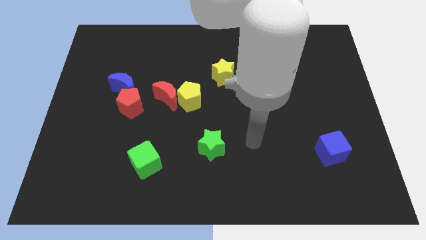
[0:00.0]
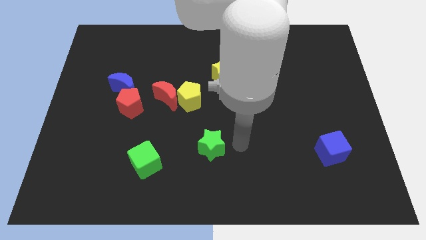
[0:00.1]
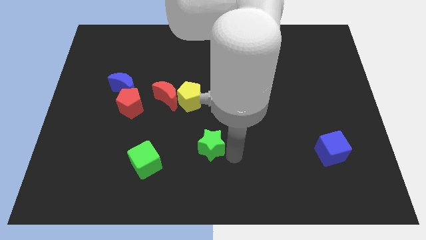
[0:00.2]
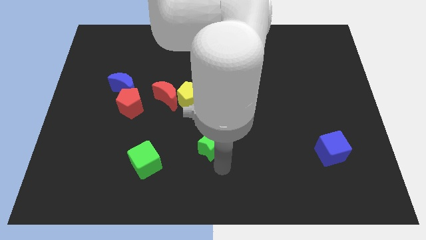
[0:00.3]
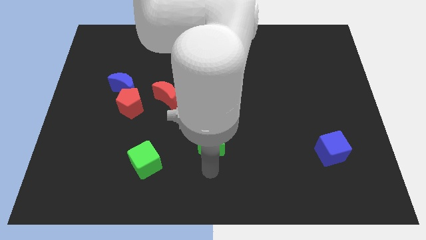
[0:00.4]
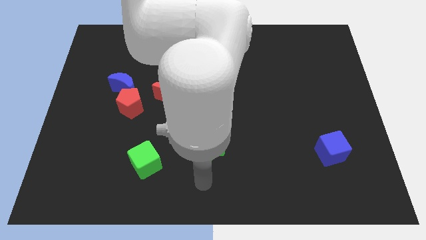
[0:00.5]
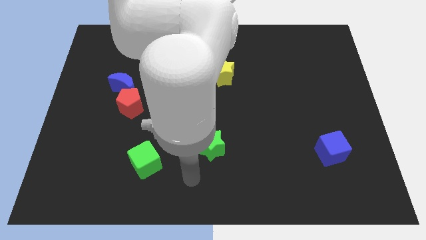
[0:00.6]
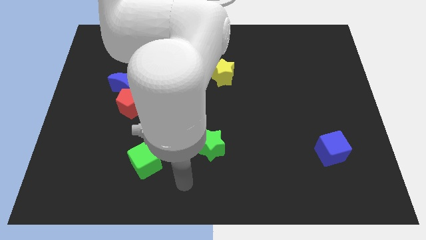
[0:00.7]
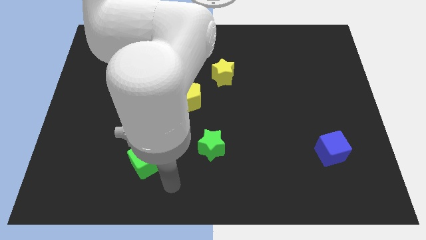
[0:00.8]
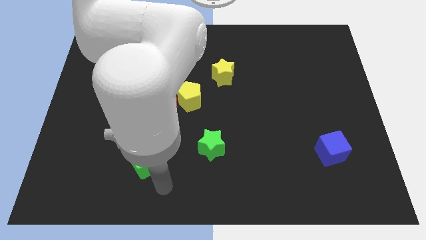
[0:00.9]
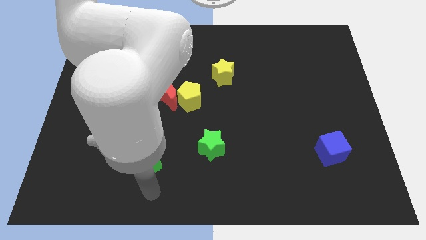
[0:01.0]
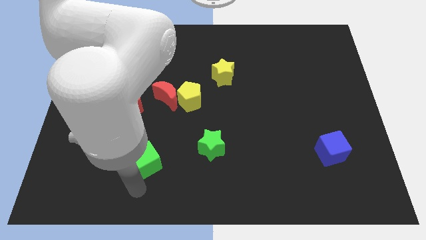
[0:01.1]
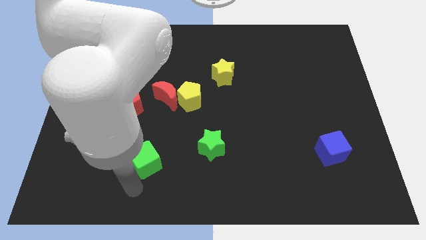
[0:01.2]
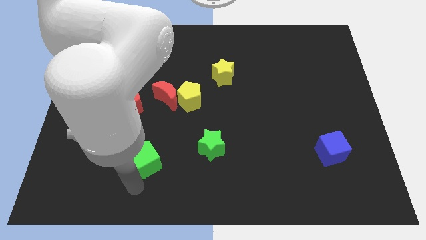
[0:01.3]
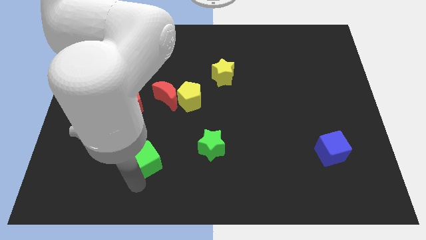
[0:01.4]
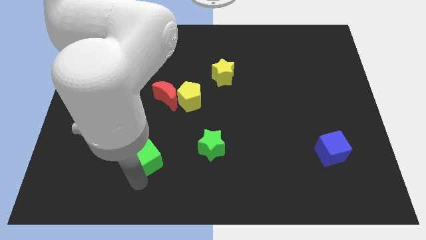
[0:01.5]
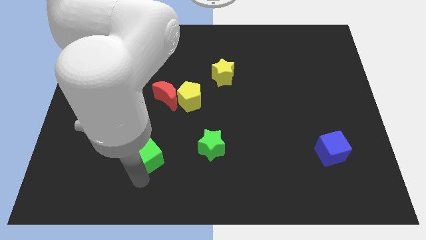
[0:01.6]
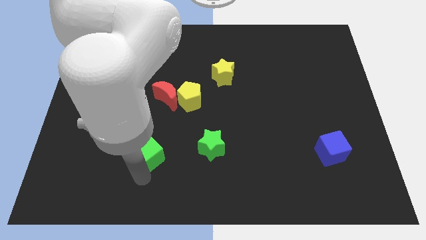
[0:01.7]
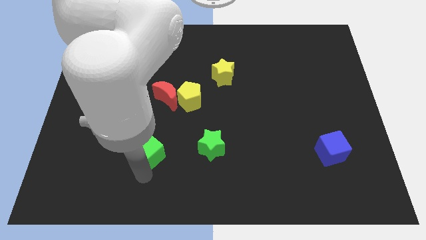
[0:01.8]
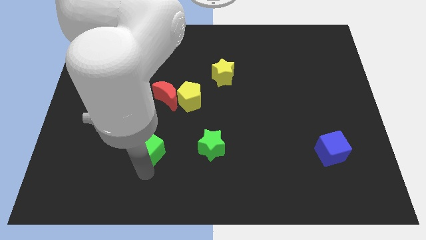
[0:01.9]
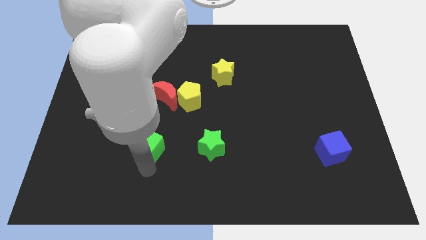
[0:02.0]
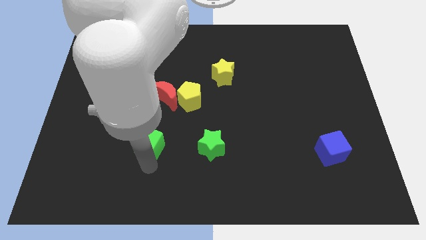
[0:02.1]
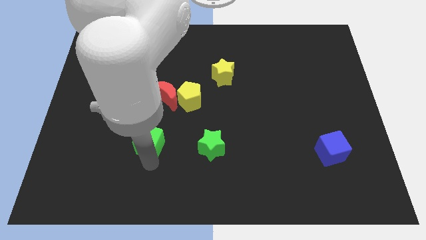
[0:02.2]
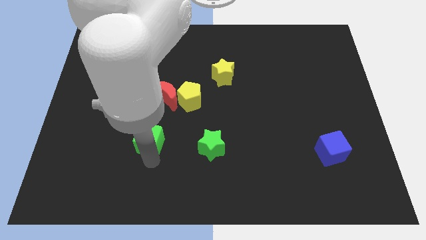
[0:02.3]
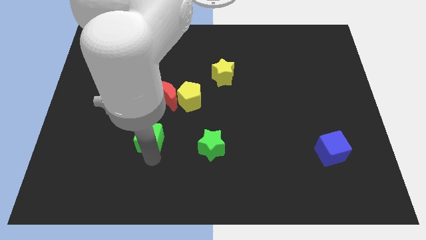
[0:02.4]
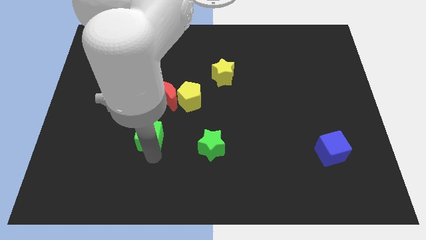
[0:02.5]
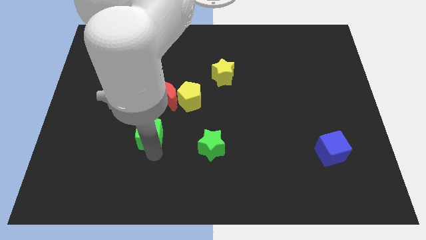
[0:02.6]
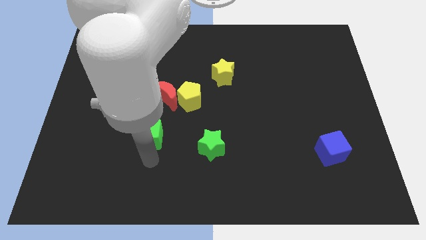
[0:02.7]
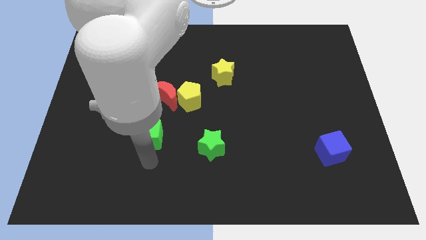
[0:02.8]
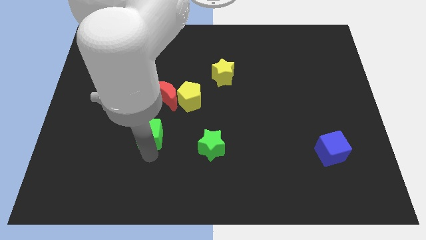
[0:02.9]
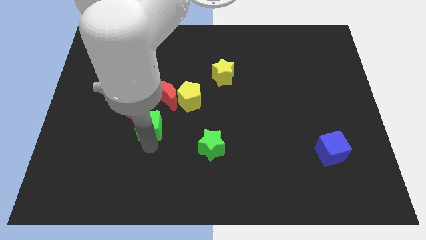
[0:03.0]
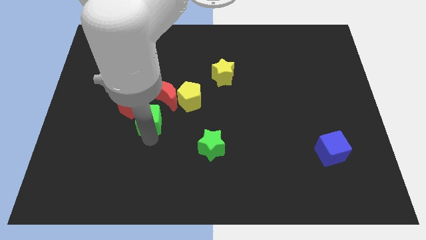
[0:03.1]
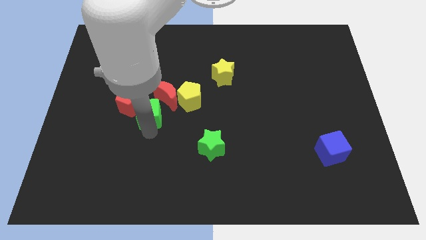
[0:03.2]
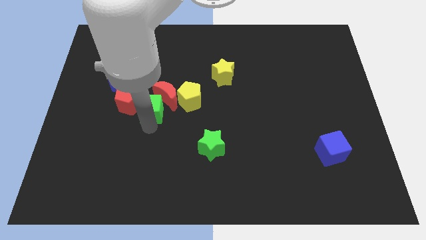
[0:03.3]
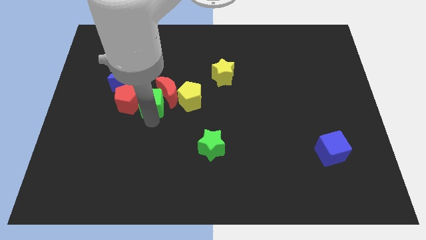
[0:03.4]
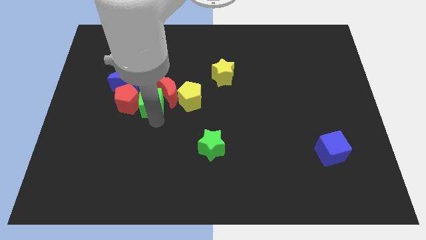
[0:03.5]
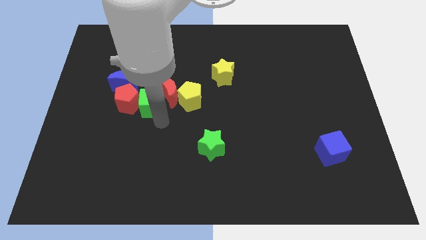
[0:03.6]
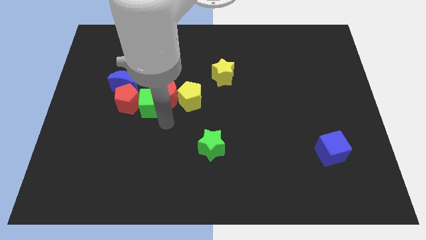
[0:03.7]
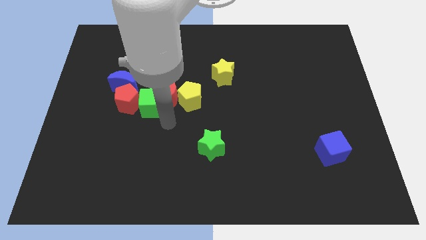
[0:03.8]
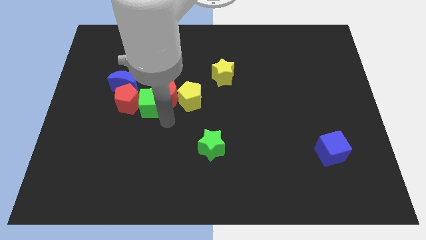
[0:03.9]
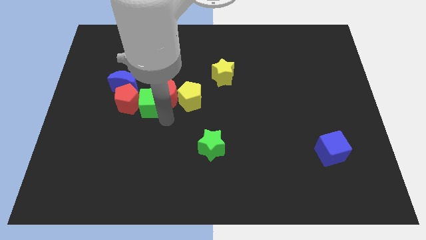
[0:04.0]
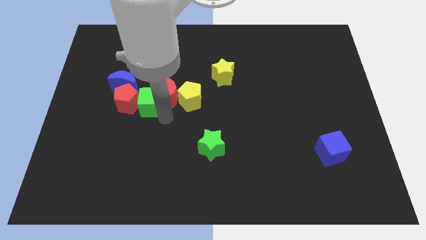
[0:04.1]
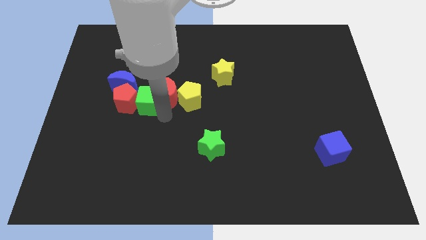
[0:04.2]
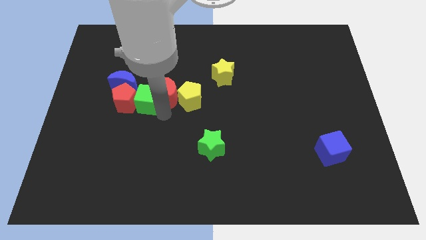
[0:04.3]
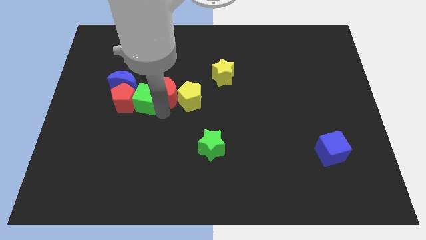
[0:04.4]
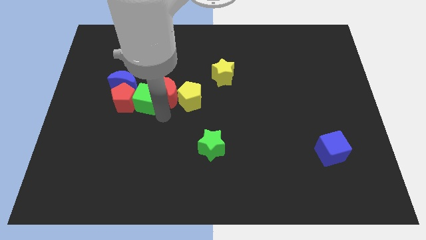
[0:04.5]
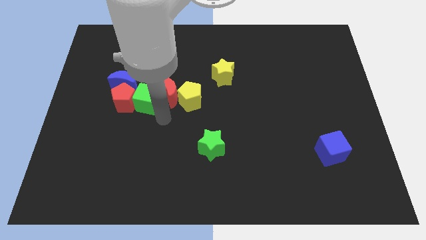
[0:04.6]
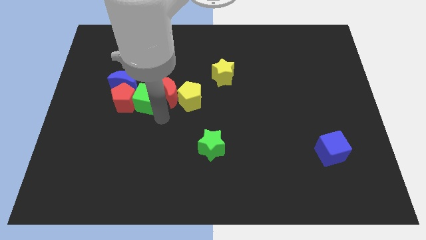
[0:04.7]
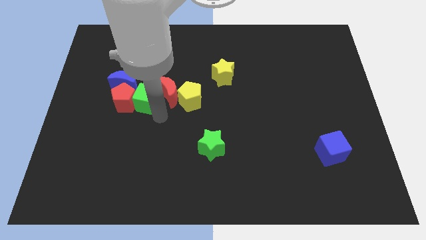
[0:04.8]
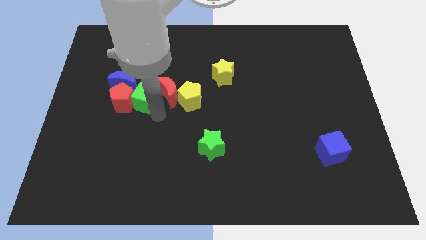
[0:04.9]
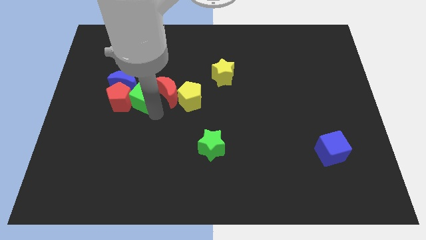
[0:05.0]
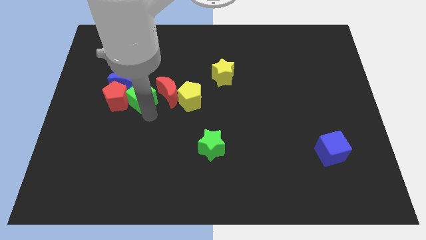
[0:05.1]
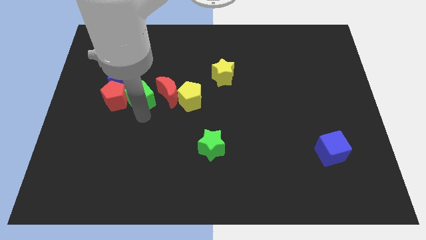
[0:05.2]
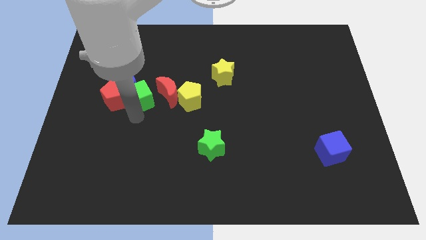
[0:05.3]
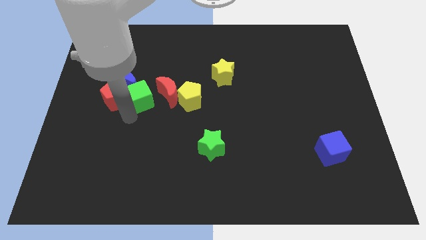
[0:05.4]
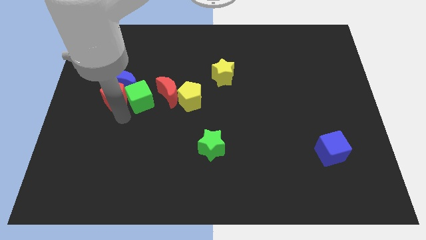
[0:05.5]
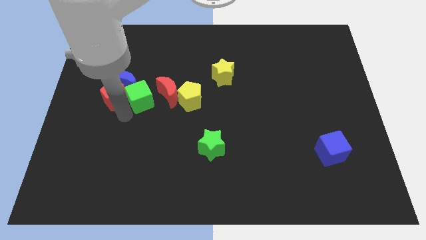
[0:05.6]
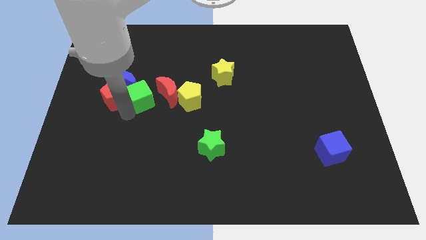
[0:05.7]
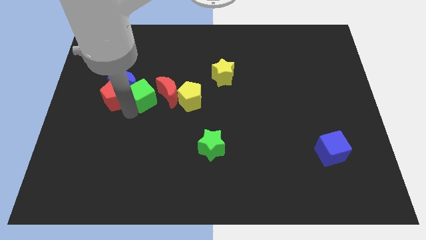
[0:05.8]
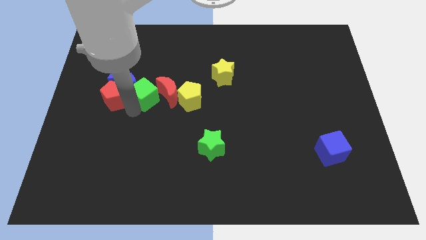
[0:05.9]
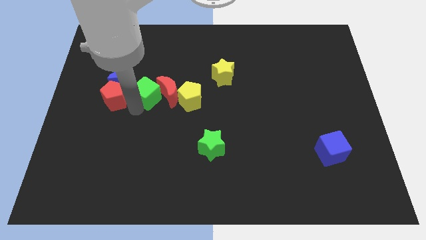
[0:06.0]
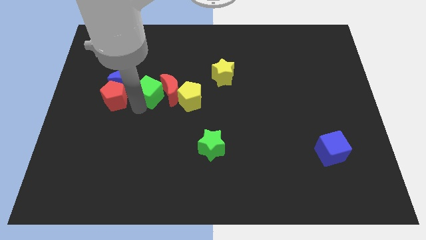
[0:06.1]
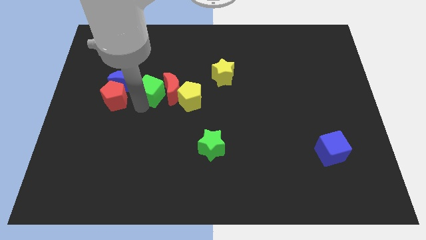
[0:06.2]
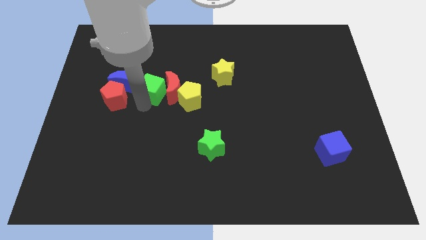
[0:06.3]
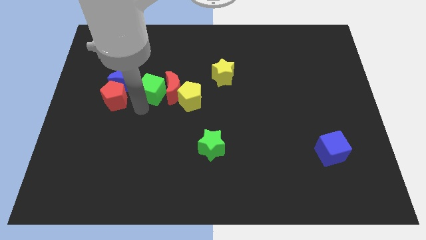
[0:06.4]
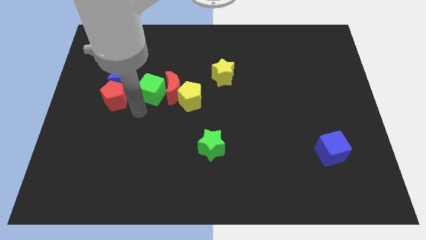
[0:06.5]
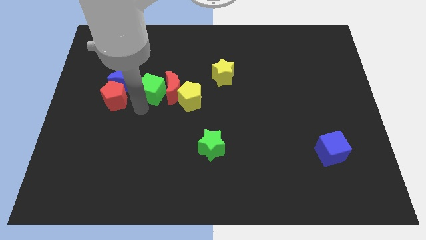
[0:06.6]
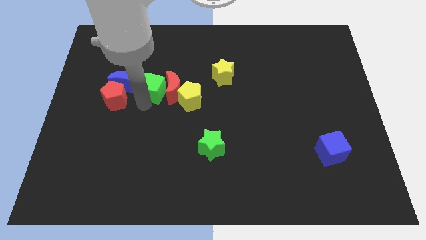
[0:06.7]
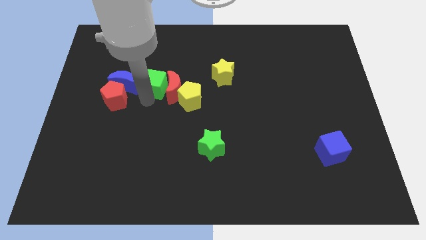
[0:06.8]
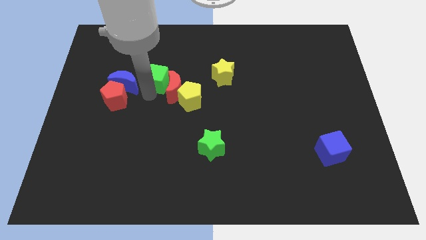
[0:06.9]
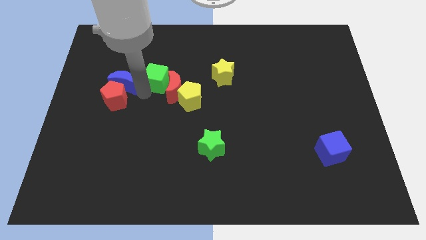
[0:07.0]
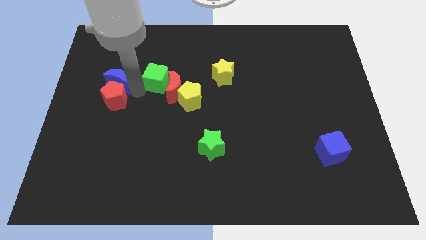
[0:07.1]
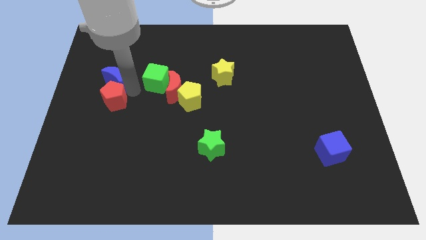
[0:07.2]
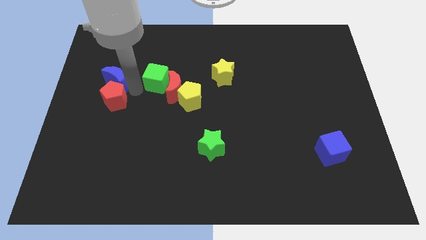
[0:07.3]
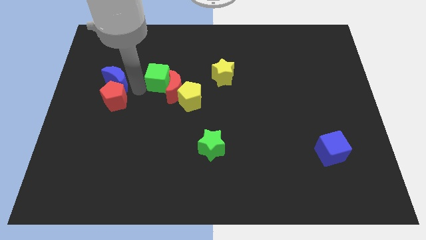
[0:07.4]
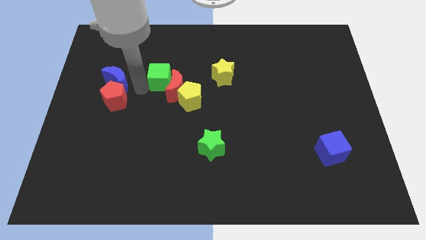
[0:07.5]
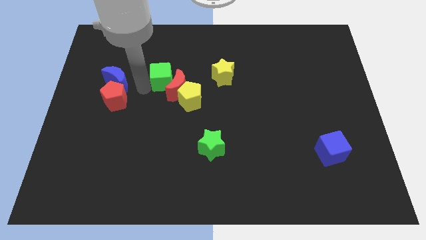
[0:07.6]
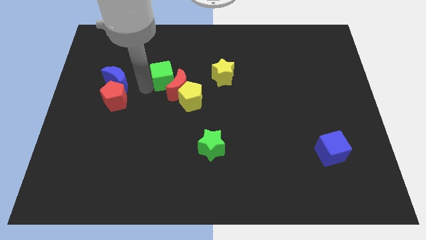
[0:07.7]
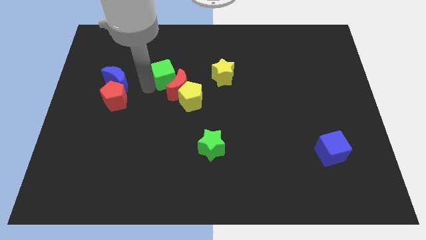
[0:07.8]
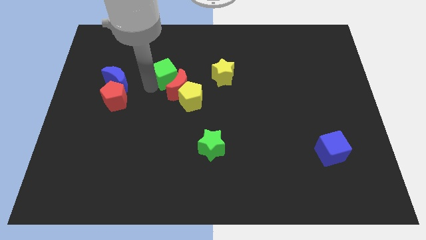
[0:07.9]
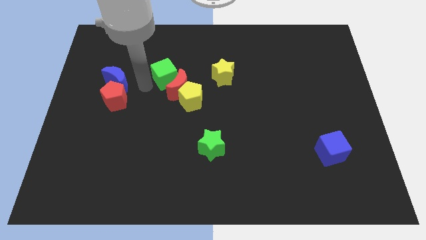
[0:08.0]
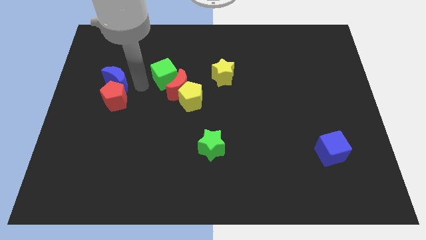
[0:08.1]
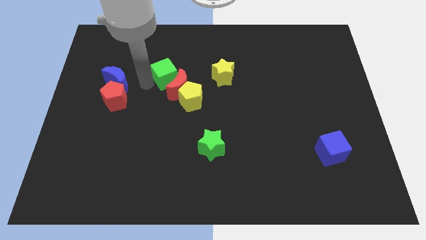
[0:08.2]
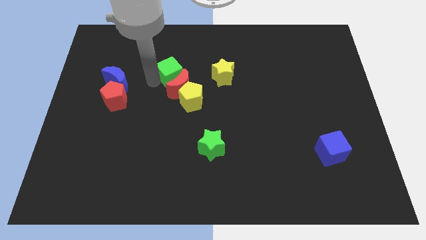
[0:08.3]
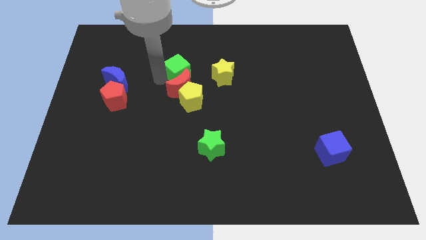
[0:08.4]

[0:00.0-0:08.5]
move the green cube to the top of the yellow pentagon
